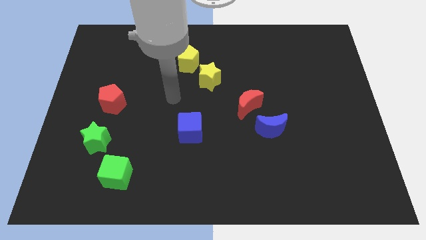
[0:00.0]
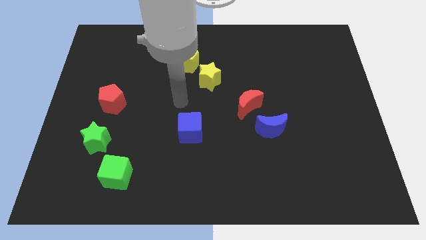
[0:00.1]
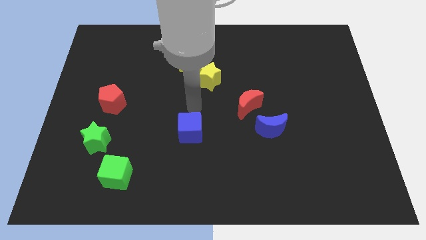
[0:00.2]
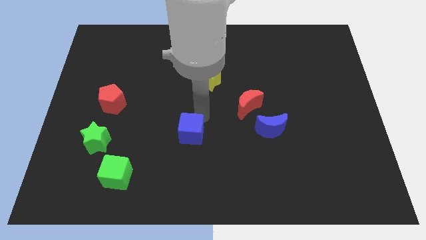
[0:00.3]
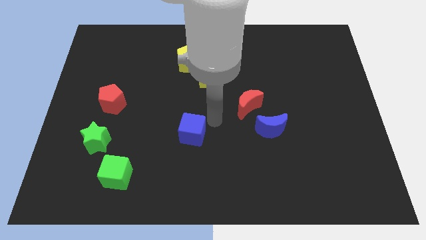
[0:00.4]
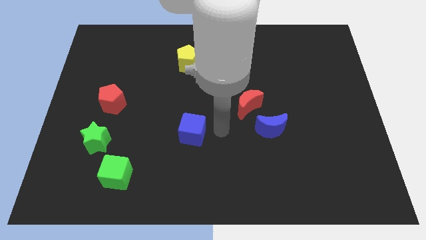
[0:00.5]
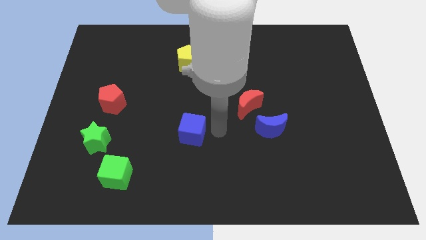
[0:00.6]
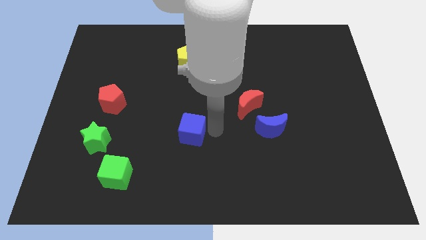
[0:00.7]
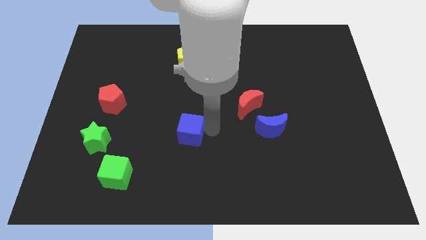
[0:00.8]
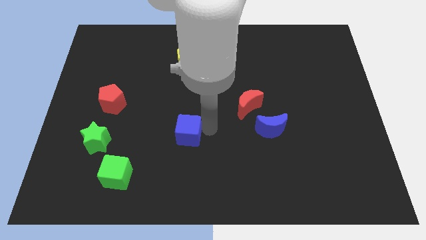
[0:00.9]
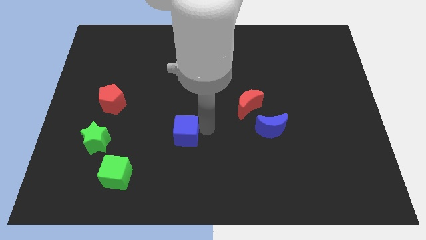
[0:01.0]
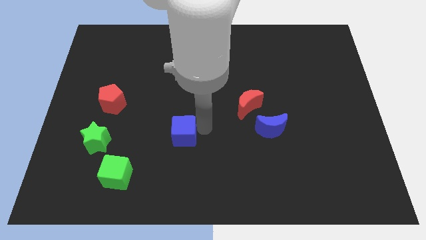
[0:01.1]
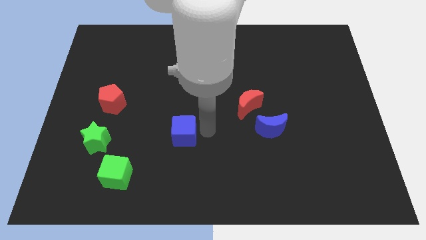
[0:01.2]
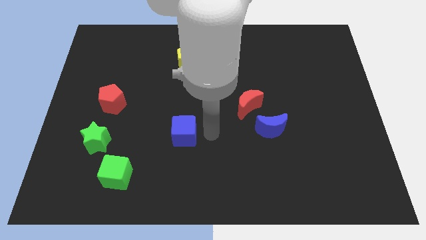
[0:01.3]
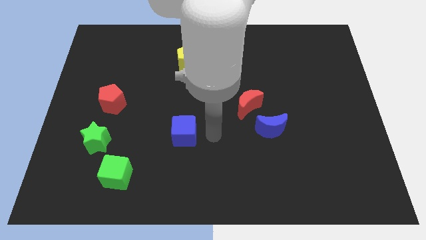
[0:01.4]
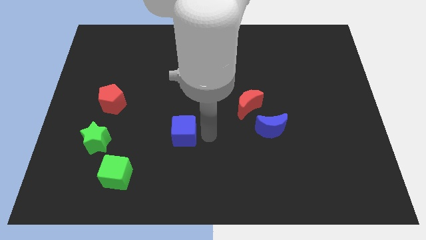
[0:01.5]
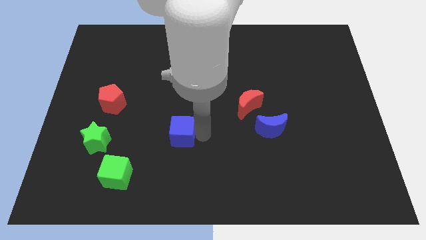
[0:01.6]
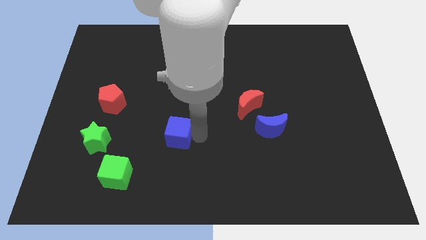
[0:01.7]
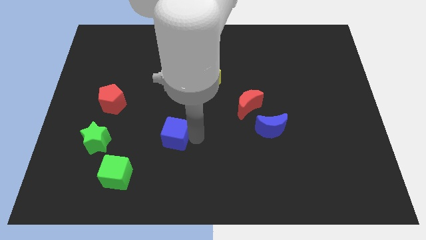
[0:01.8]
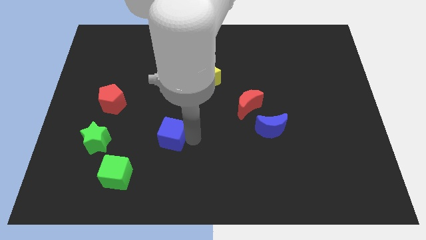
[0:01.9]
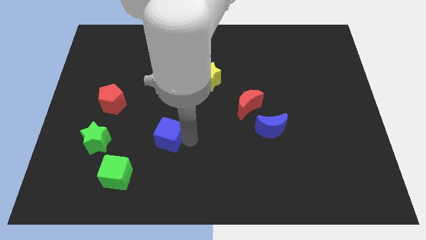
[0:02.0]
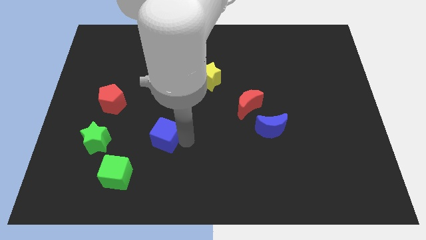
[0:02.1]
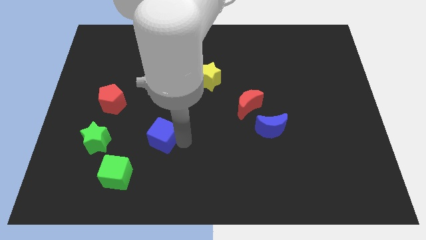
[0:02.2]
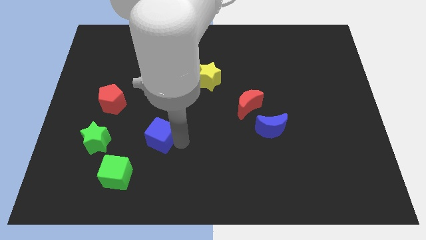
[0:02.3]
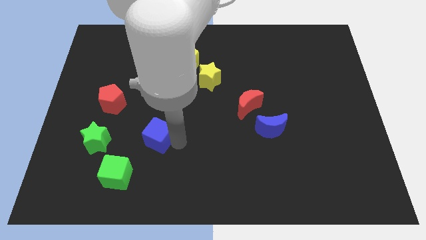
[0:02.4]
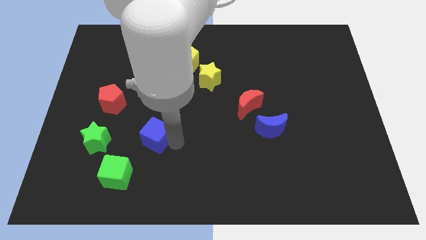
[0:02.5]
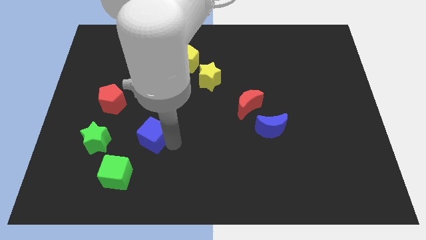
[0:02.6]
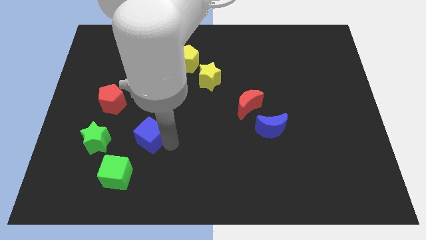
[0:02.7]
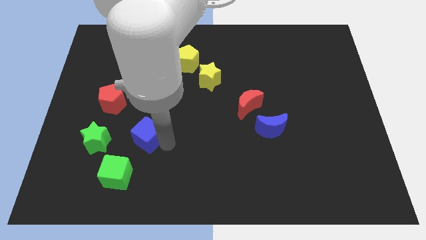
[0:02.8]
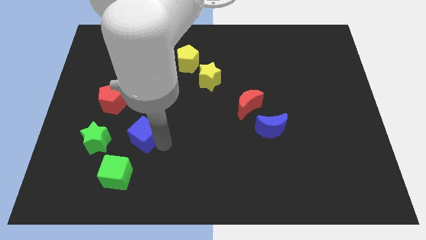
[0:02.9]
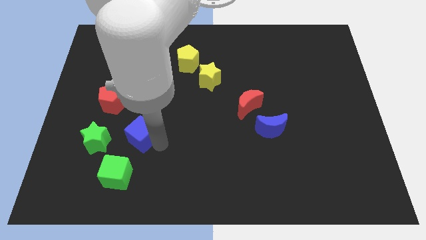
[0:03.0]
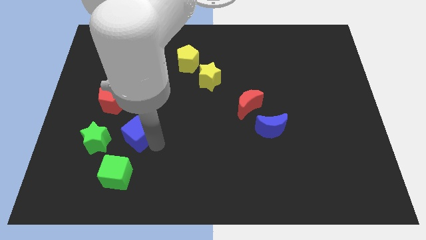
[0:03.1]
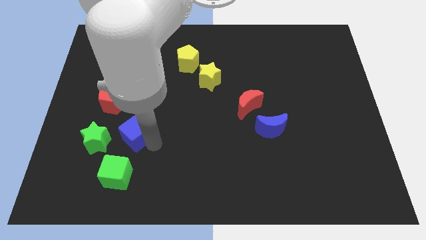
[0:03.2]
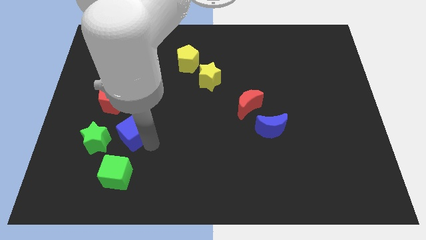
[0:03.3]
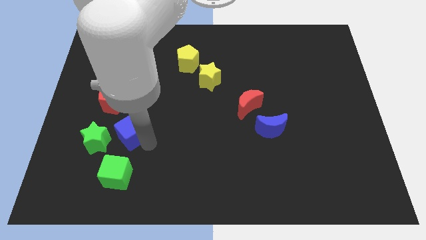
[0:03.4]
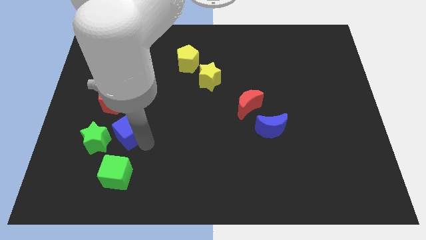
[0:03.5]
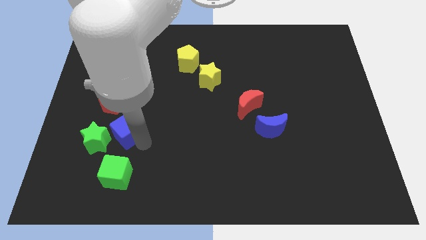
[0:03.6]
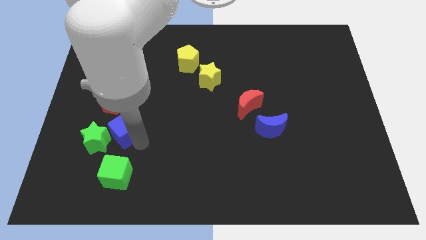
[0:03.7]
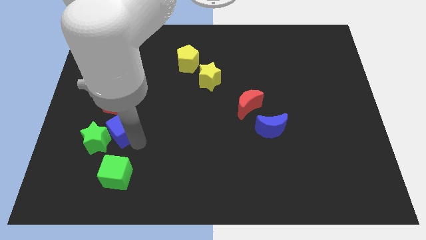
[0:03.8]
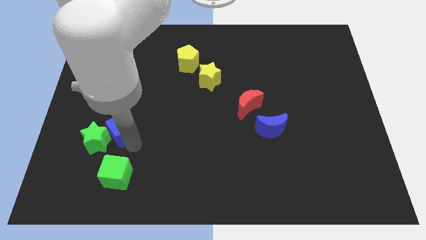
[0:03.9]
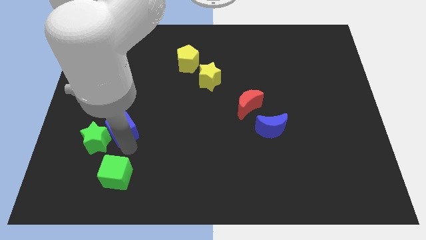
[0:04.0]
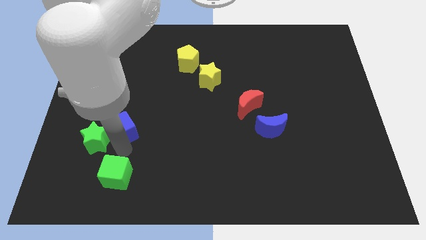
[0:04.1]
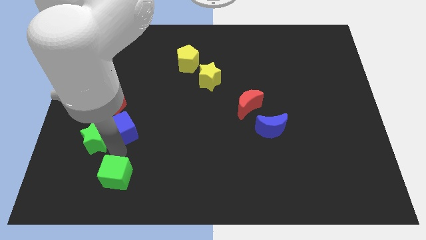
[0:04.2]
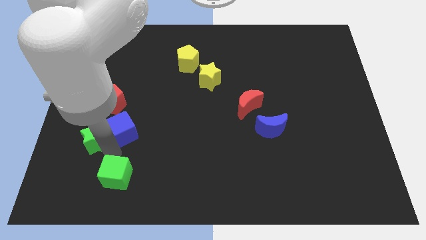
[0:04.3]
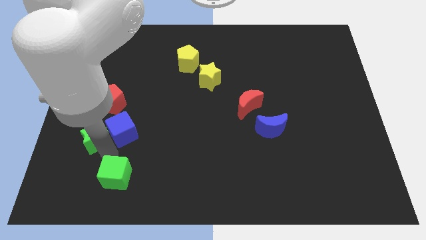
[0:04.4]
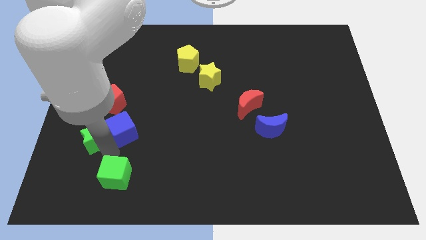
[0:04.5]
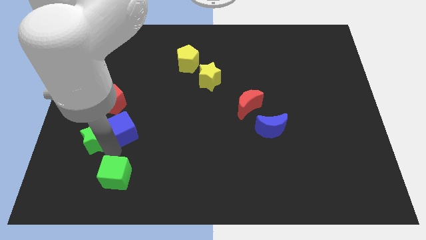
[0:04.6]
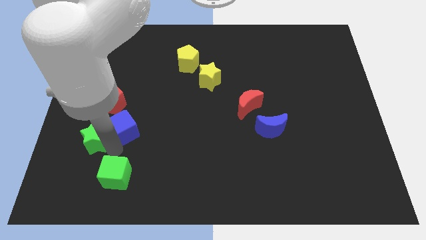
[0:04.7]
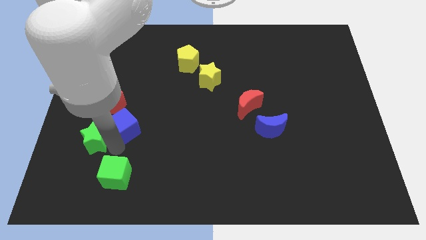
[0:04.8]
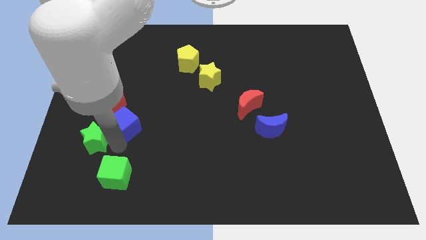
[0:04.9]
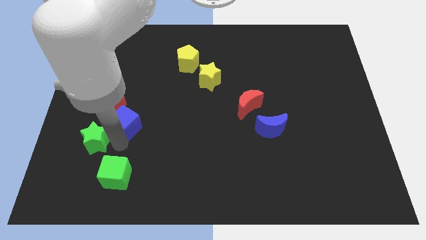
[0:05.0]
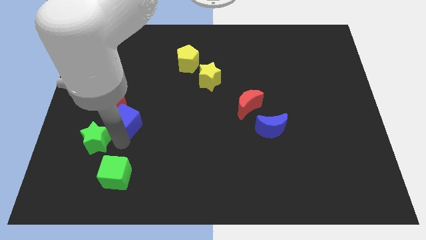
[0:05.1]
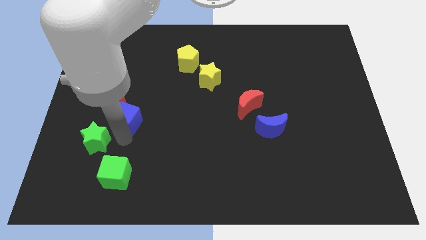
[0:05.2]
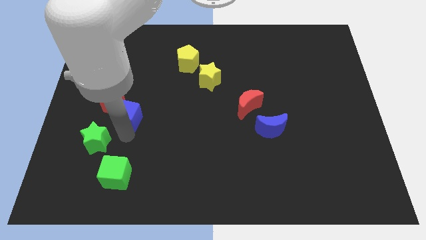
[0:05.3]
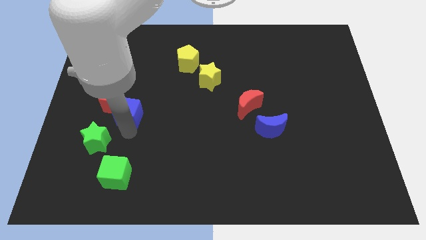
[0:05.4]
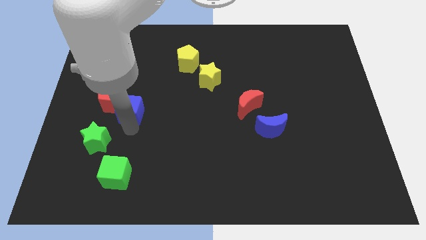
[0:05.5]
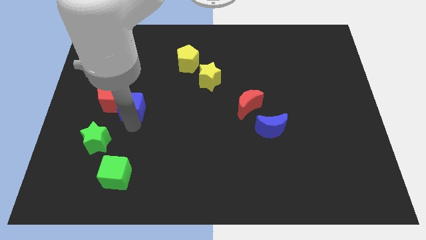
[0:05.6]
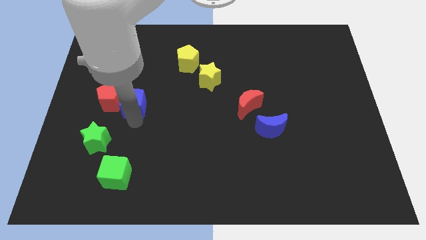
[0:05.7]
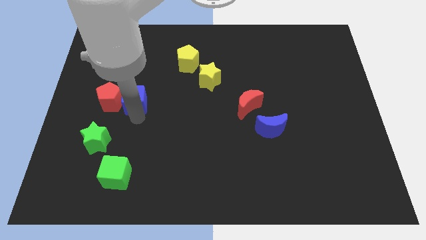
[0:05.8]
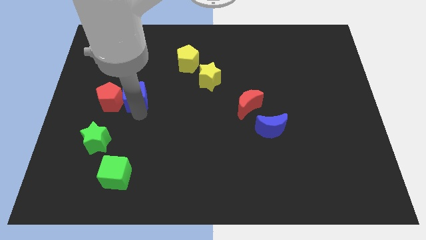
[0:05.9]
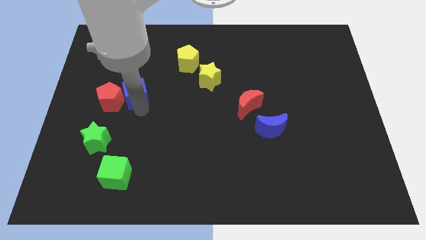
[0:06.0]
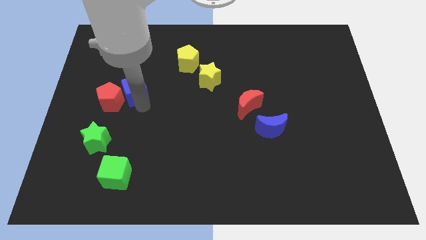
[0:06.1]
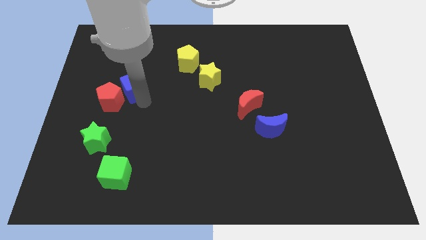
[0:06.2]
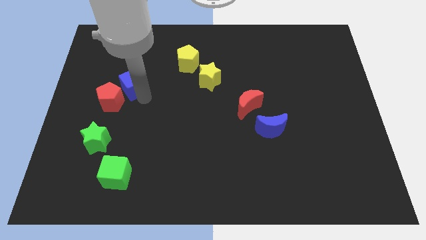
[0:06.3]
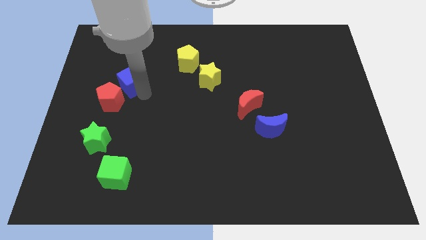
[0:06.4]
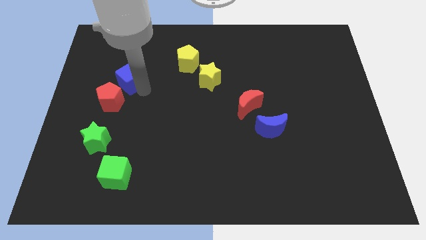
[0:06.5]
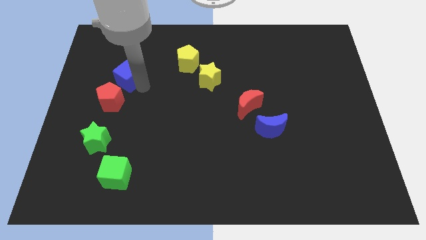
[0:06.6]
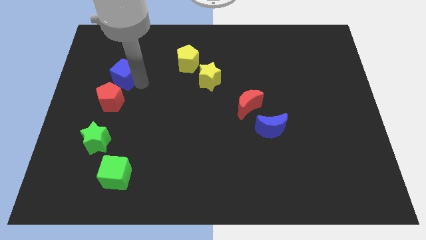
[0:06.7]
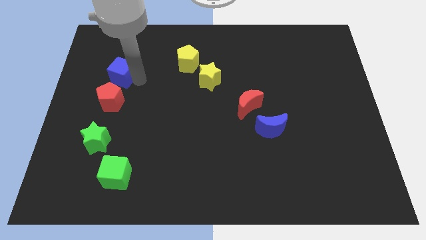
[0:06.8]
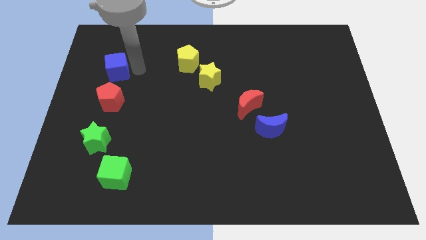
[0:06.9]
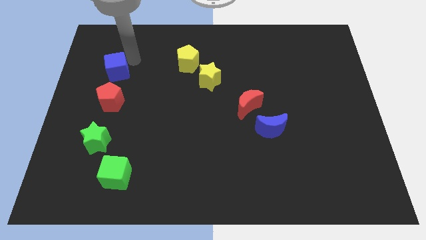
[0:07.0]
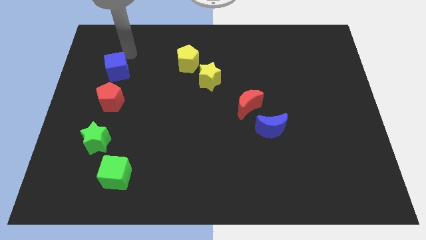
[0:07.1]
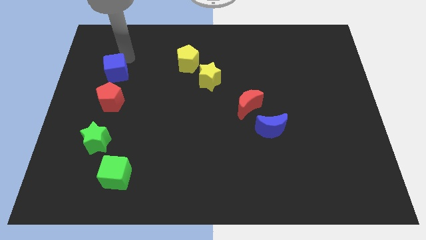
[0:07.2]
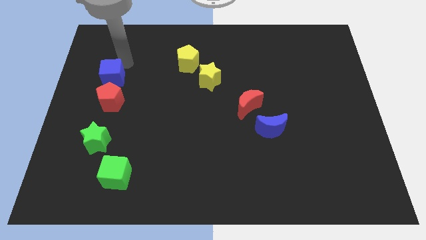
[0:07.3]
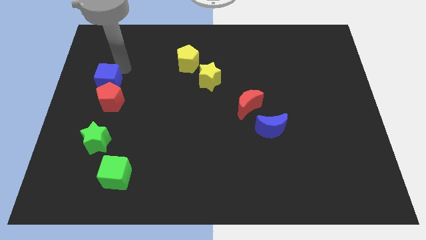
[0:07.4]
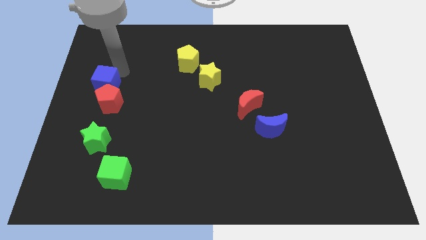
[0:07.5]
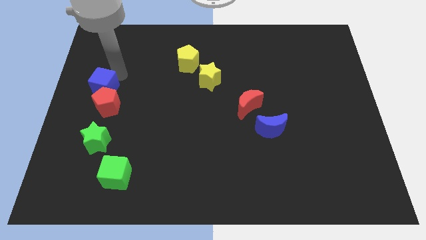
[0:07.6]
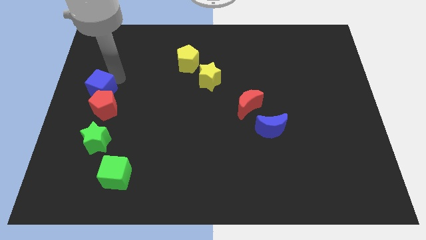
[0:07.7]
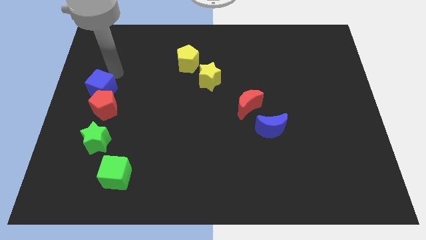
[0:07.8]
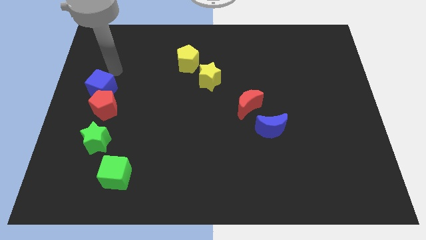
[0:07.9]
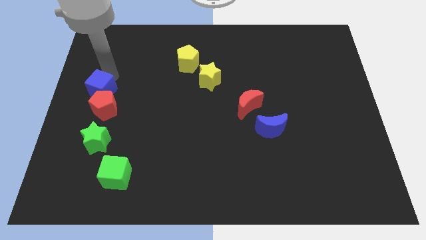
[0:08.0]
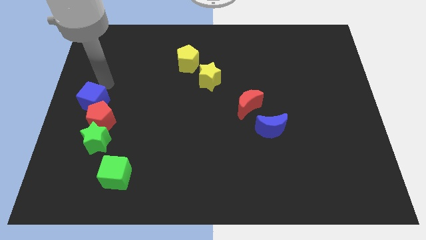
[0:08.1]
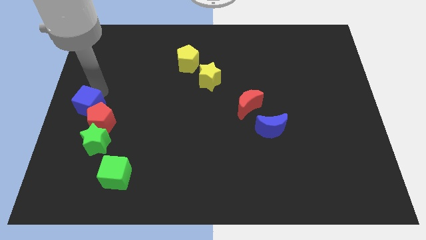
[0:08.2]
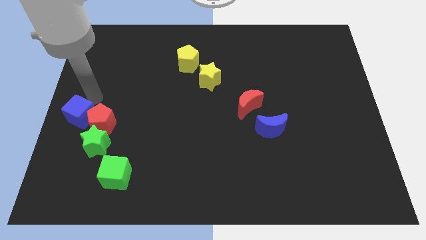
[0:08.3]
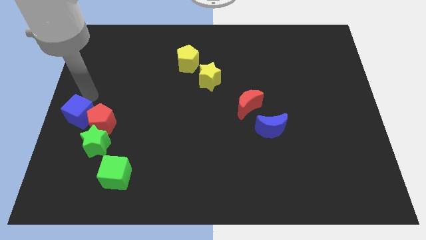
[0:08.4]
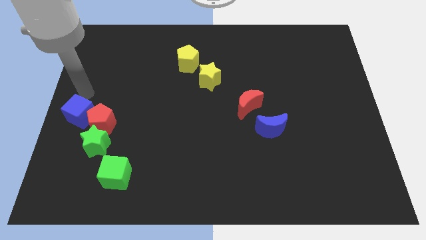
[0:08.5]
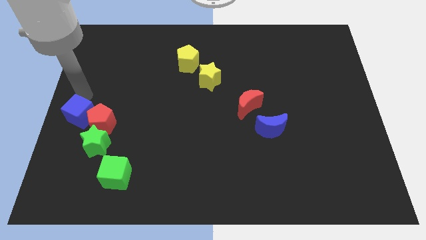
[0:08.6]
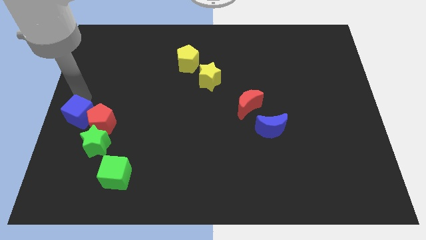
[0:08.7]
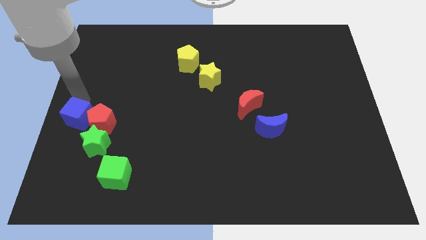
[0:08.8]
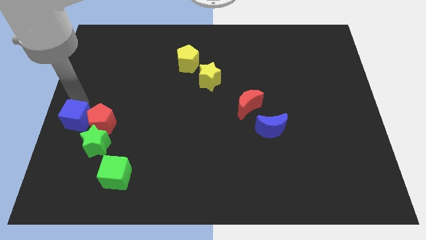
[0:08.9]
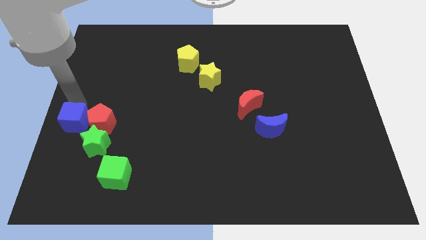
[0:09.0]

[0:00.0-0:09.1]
push the blue cube diagonally down and to the left of the red pentagon
